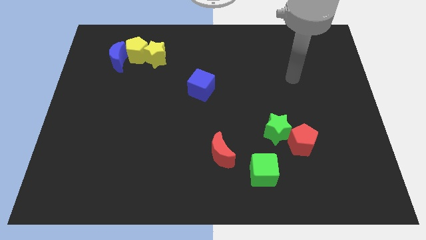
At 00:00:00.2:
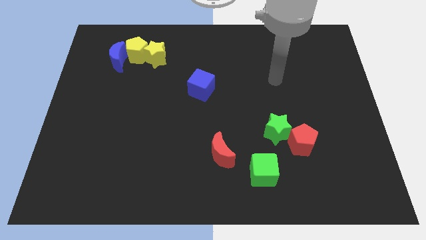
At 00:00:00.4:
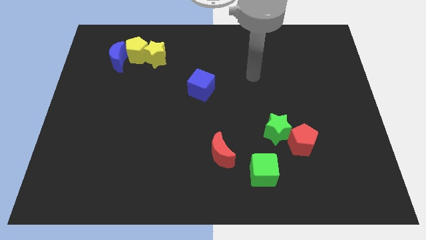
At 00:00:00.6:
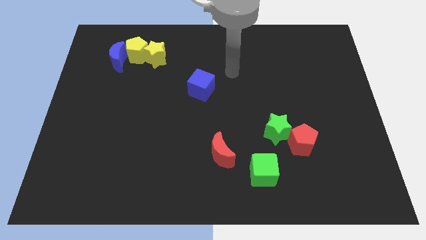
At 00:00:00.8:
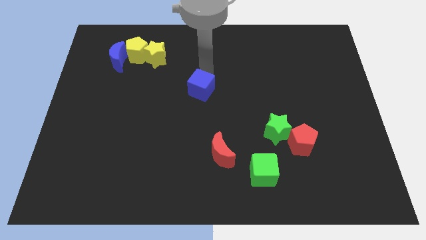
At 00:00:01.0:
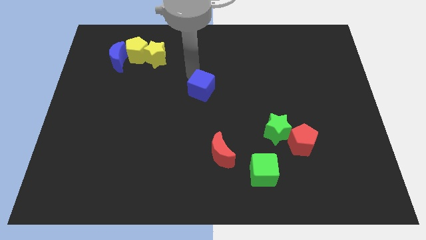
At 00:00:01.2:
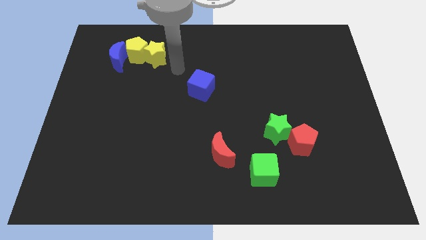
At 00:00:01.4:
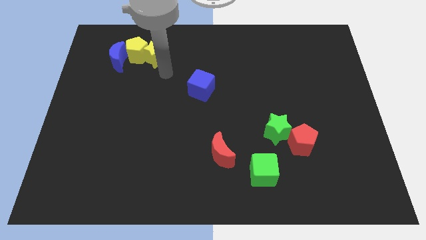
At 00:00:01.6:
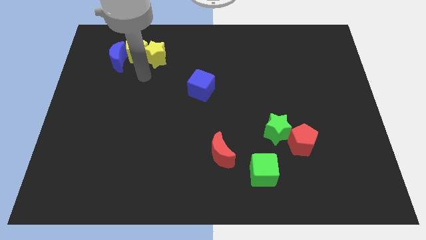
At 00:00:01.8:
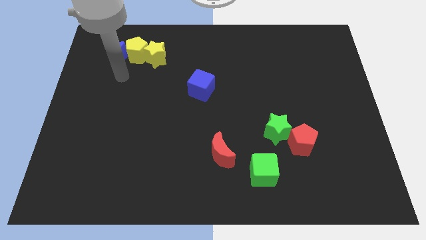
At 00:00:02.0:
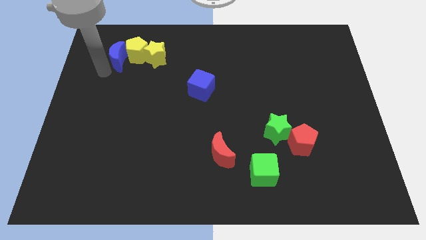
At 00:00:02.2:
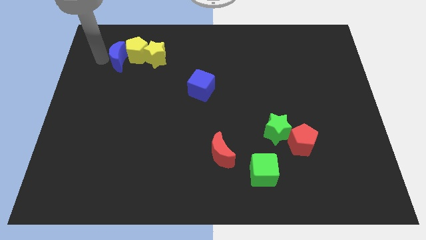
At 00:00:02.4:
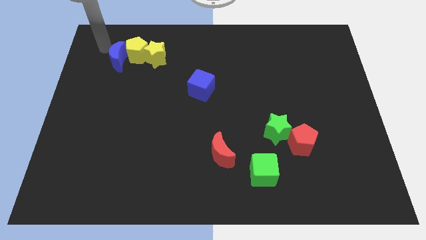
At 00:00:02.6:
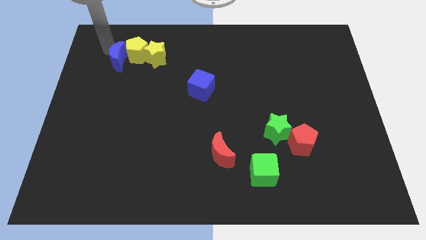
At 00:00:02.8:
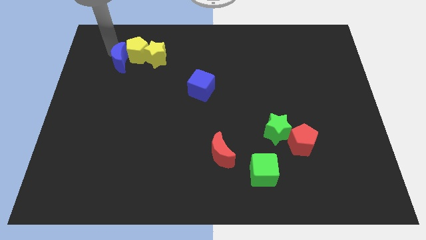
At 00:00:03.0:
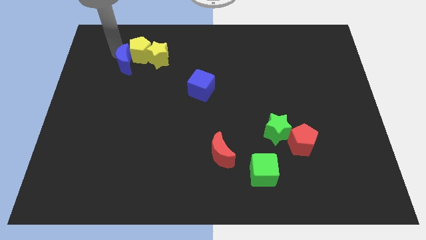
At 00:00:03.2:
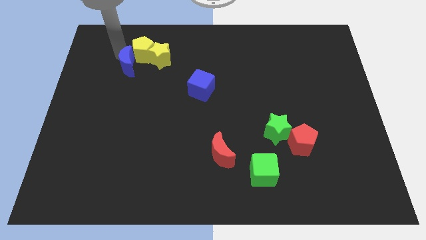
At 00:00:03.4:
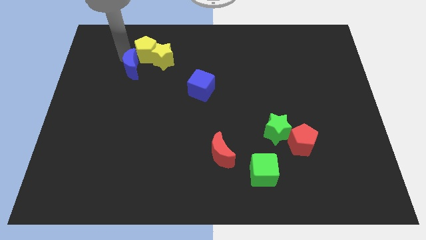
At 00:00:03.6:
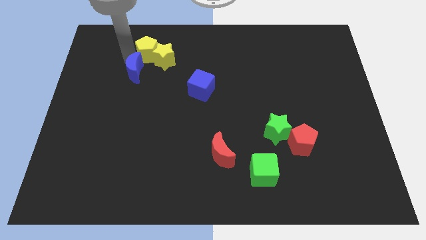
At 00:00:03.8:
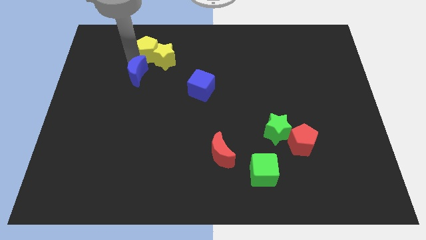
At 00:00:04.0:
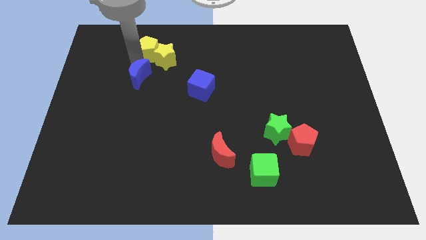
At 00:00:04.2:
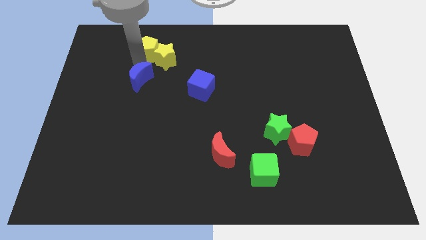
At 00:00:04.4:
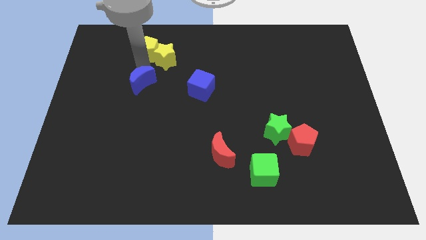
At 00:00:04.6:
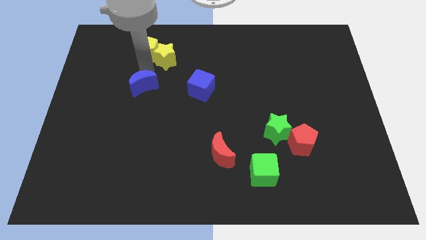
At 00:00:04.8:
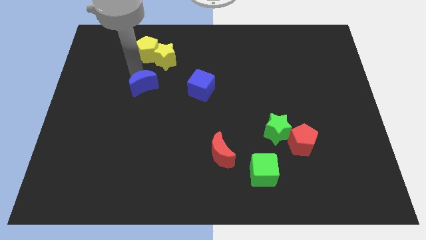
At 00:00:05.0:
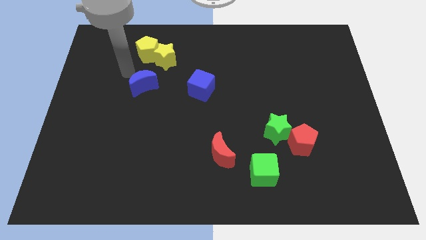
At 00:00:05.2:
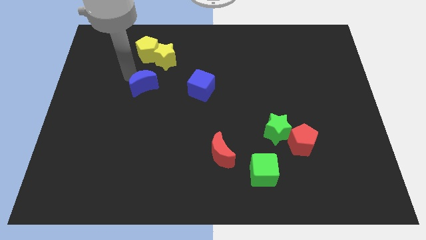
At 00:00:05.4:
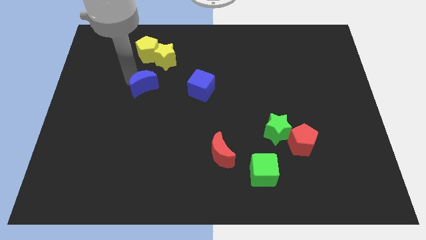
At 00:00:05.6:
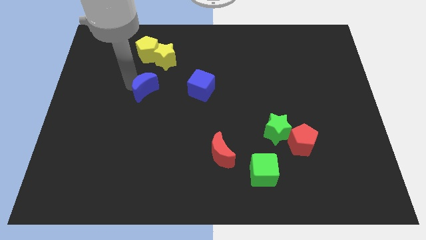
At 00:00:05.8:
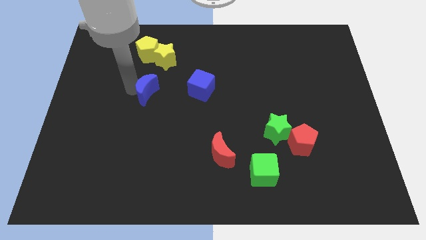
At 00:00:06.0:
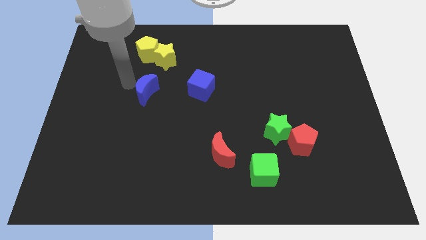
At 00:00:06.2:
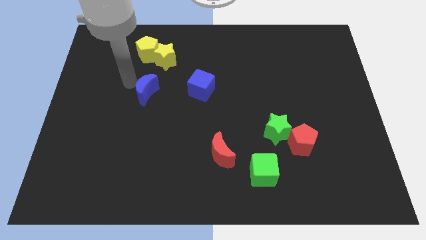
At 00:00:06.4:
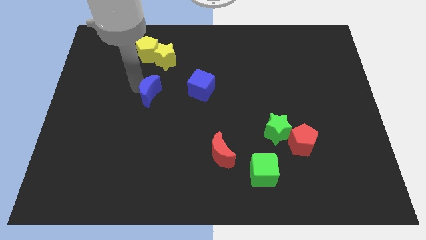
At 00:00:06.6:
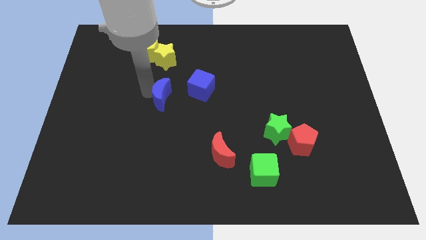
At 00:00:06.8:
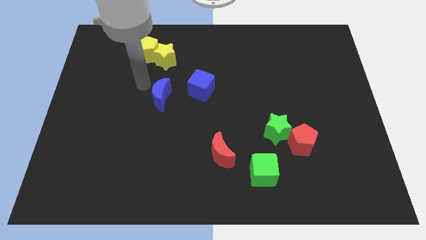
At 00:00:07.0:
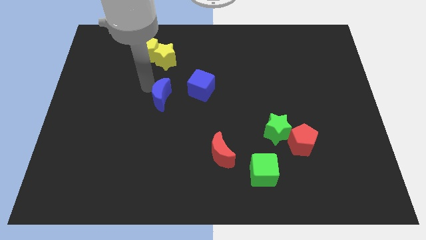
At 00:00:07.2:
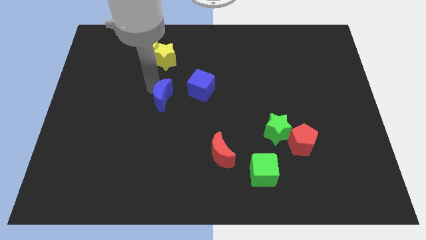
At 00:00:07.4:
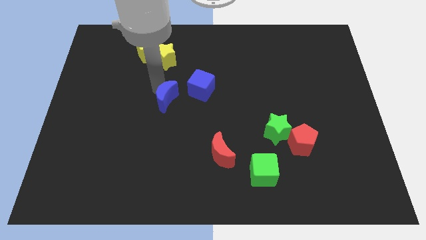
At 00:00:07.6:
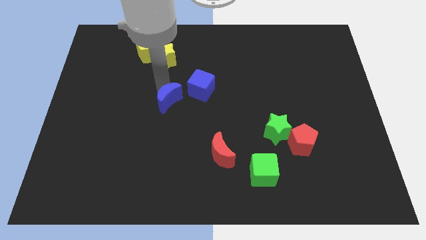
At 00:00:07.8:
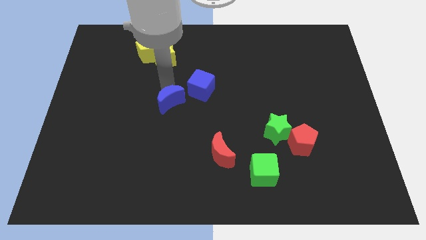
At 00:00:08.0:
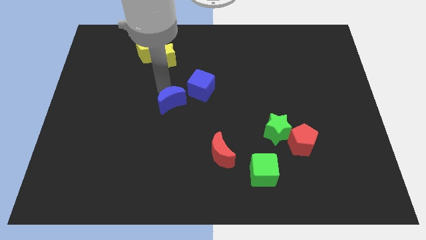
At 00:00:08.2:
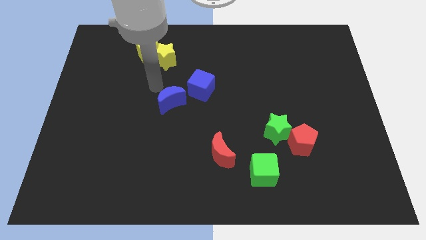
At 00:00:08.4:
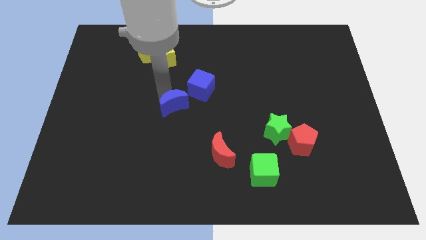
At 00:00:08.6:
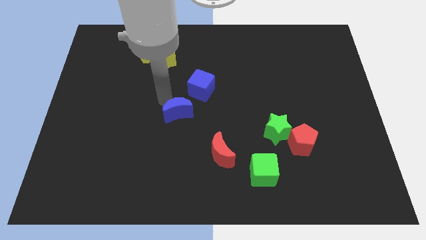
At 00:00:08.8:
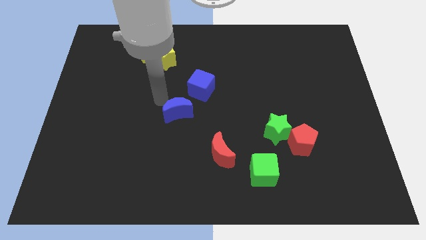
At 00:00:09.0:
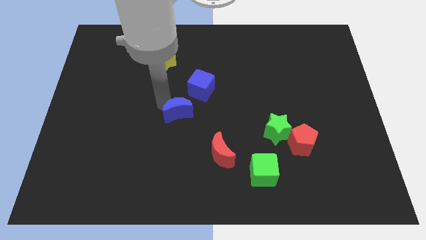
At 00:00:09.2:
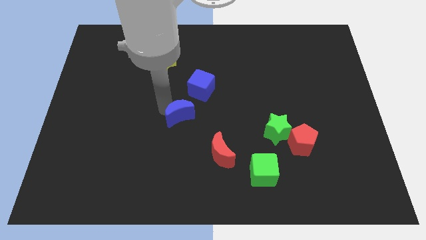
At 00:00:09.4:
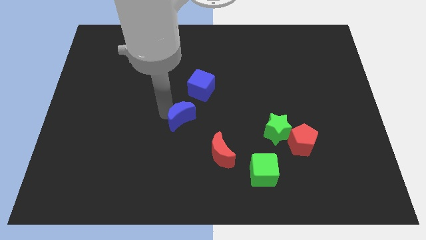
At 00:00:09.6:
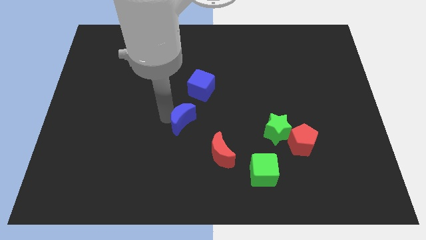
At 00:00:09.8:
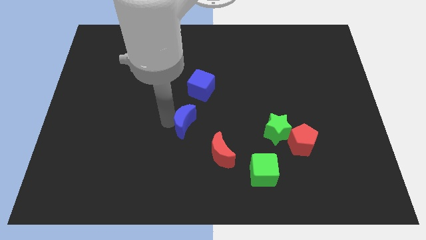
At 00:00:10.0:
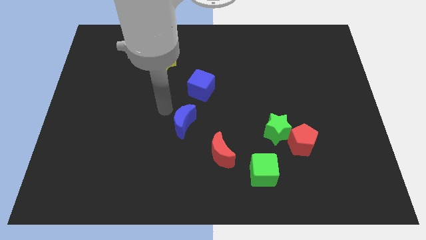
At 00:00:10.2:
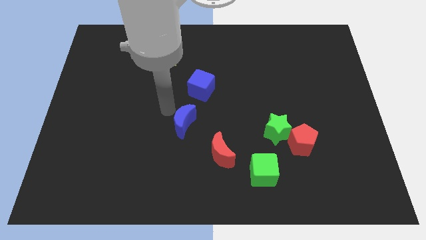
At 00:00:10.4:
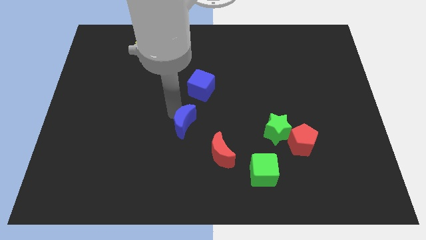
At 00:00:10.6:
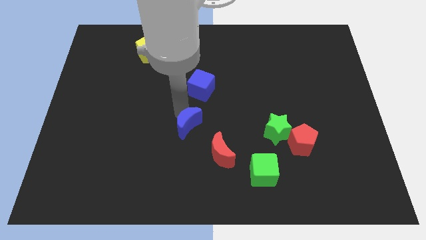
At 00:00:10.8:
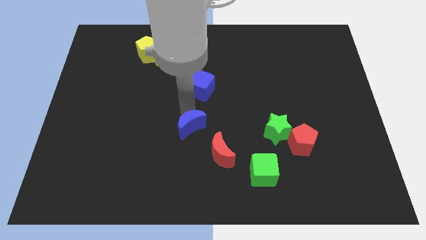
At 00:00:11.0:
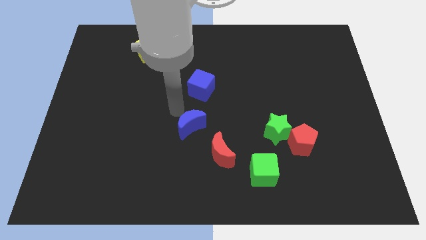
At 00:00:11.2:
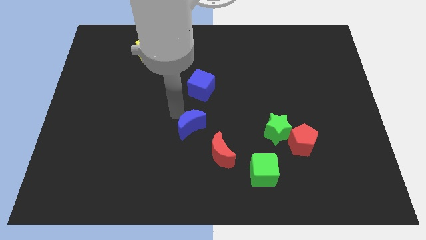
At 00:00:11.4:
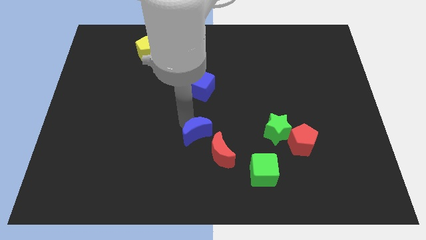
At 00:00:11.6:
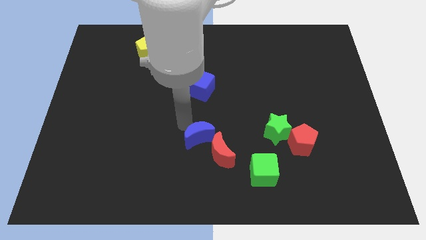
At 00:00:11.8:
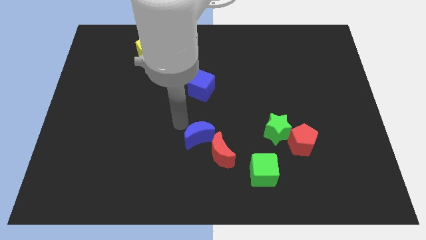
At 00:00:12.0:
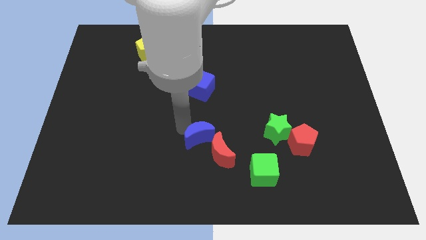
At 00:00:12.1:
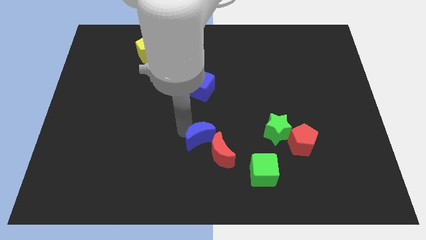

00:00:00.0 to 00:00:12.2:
move the blue moon next to the red moon

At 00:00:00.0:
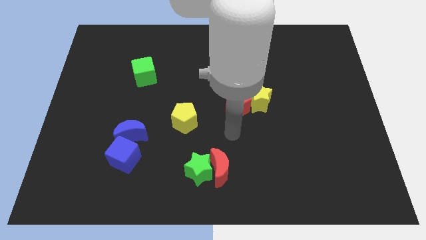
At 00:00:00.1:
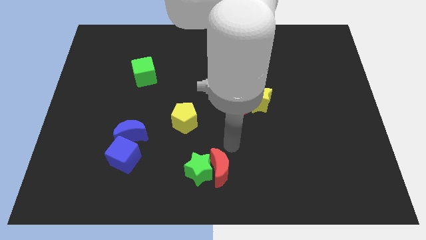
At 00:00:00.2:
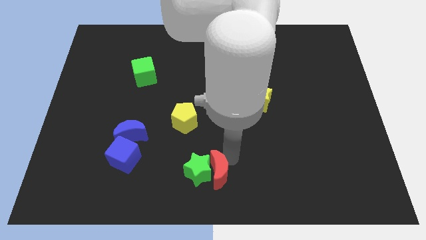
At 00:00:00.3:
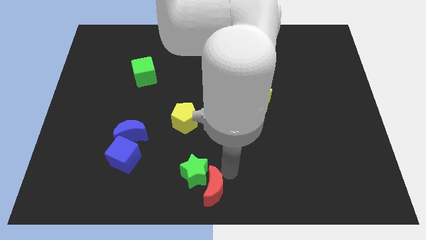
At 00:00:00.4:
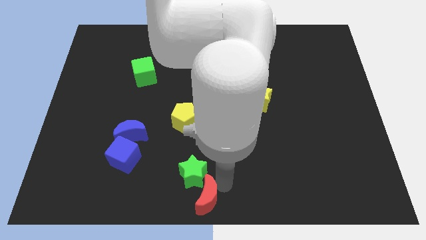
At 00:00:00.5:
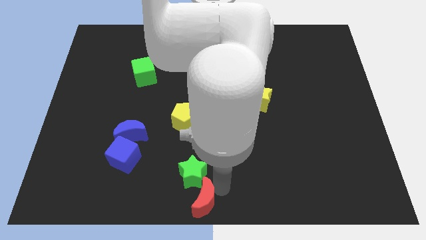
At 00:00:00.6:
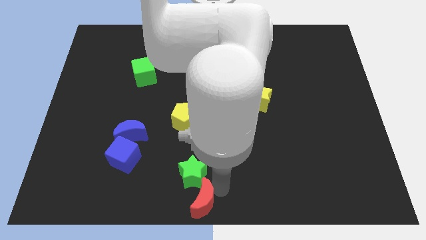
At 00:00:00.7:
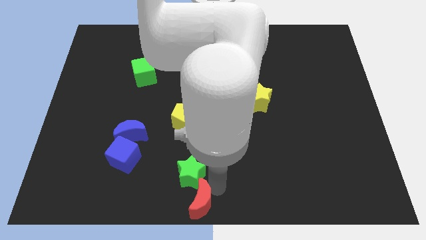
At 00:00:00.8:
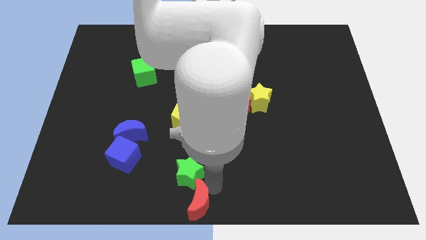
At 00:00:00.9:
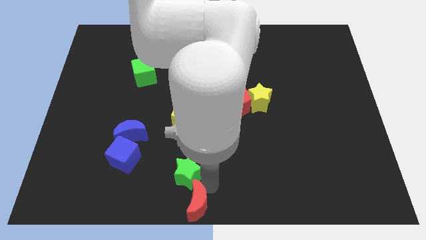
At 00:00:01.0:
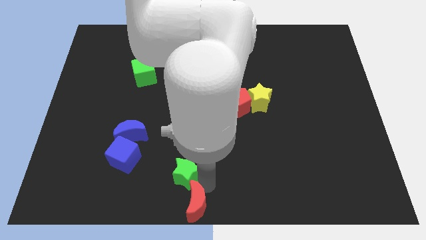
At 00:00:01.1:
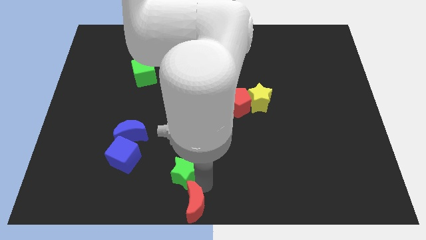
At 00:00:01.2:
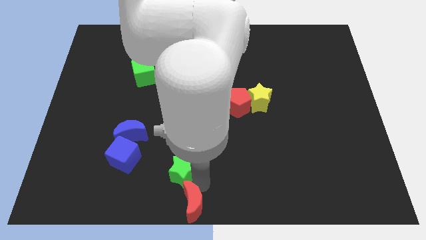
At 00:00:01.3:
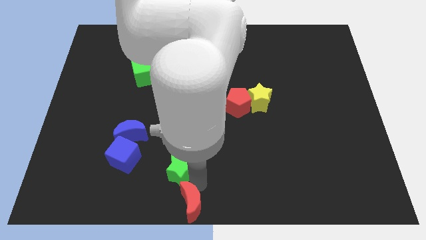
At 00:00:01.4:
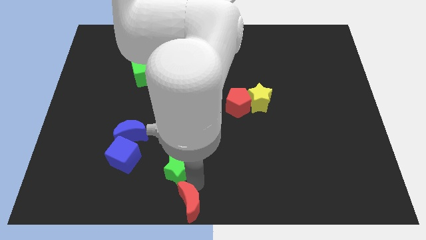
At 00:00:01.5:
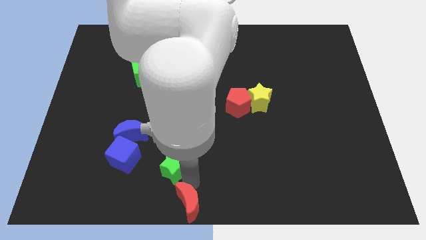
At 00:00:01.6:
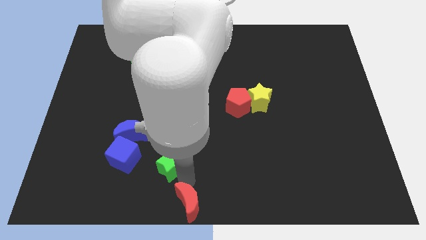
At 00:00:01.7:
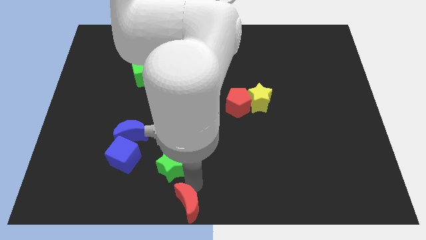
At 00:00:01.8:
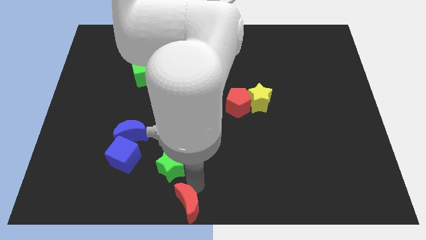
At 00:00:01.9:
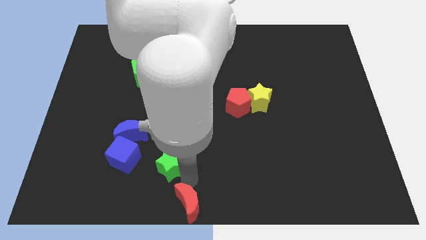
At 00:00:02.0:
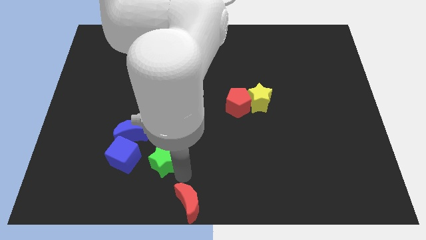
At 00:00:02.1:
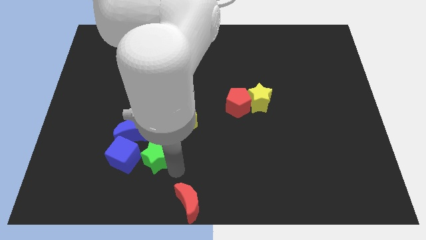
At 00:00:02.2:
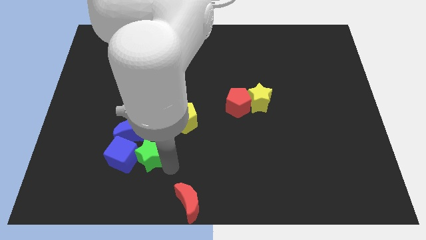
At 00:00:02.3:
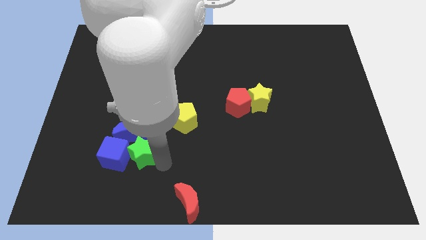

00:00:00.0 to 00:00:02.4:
push the green star close to the blue moon
